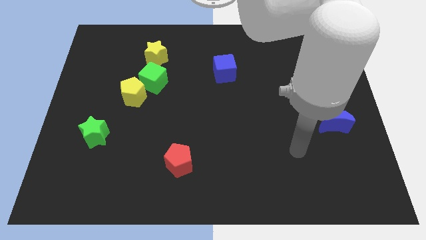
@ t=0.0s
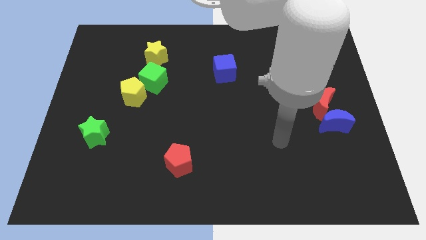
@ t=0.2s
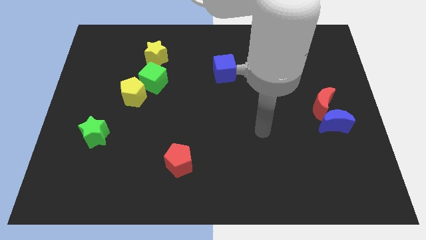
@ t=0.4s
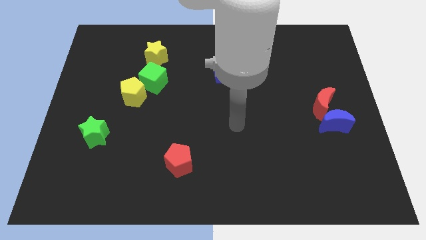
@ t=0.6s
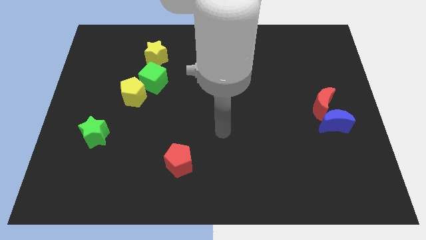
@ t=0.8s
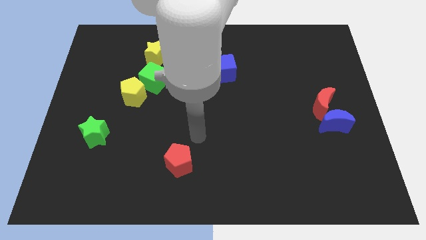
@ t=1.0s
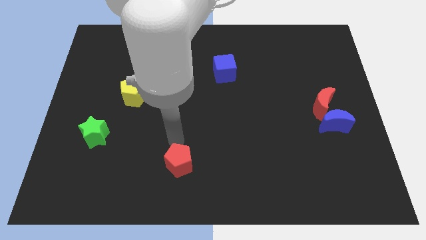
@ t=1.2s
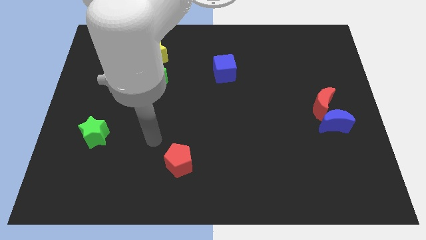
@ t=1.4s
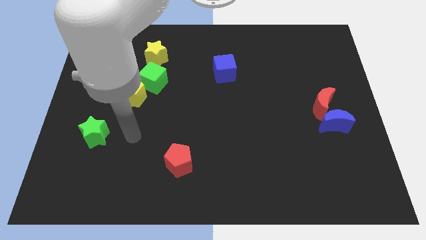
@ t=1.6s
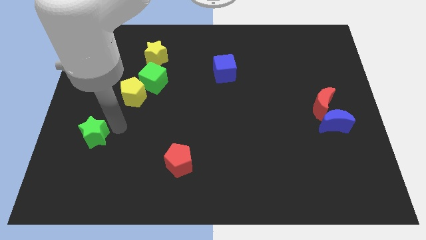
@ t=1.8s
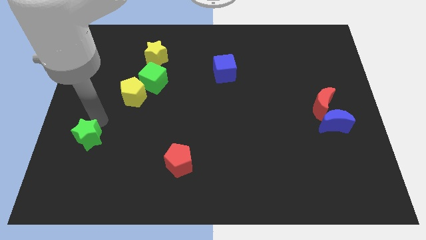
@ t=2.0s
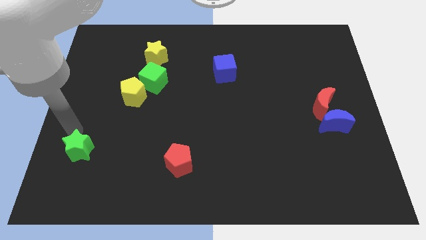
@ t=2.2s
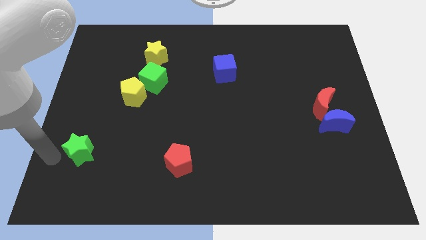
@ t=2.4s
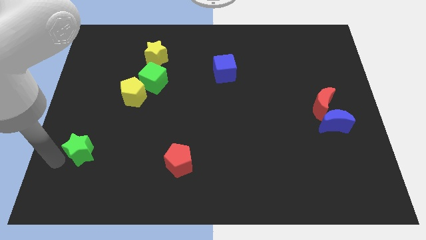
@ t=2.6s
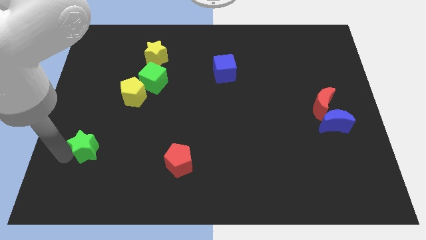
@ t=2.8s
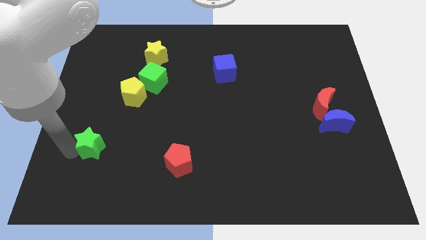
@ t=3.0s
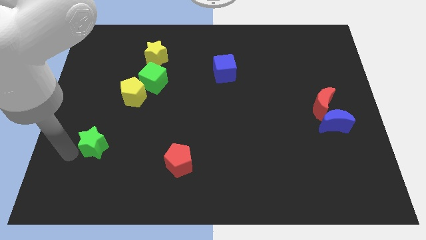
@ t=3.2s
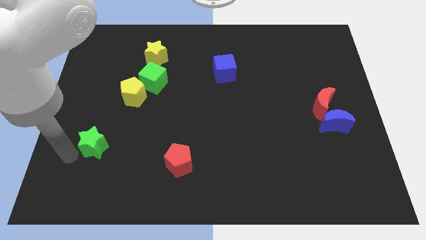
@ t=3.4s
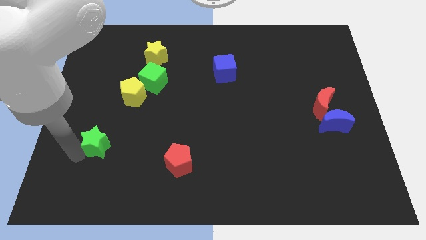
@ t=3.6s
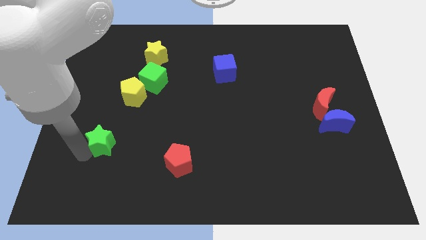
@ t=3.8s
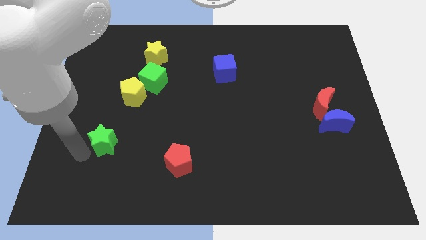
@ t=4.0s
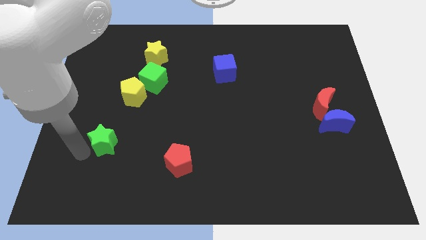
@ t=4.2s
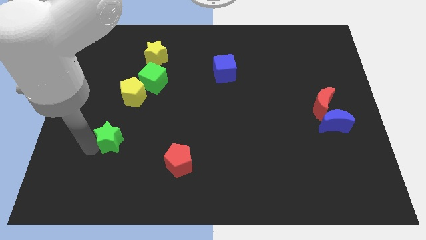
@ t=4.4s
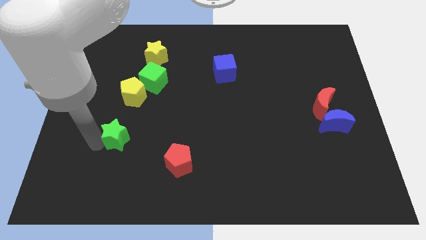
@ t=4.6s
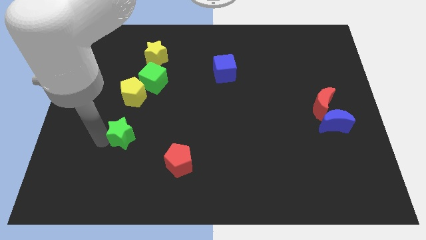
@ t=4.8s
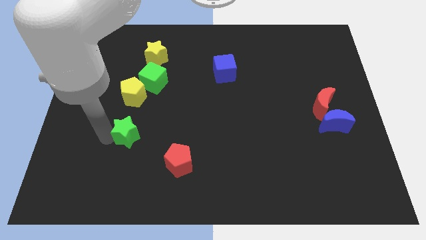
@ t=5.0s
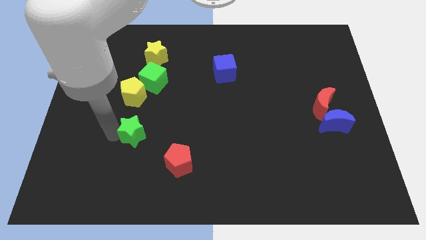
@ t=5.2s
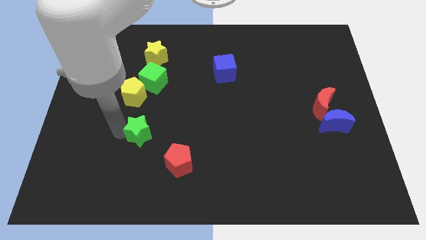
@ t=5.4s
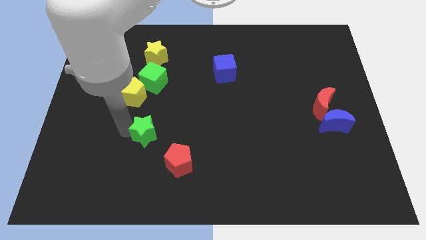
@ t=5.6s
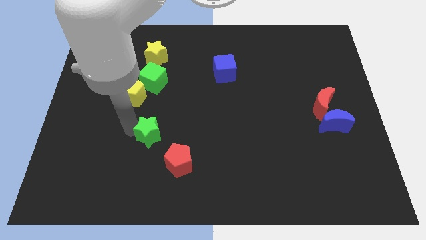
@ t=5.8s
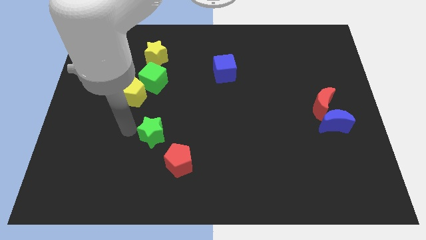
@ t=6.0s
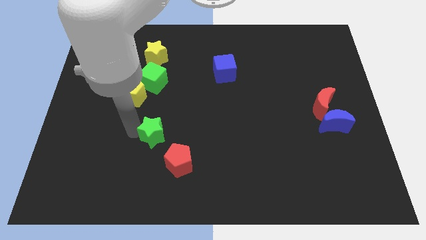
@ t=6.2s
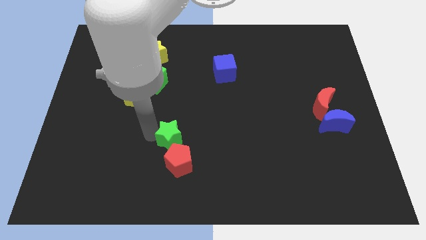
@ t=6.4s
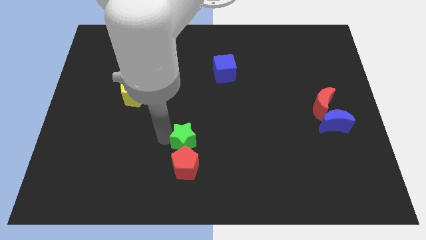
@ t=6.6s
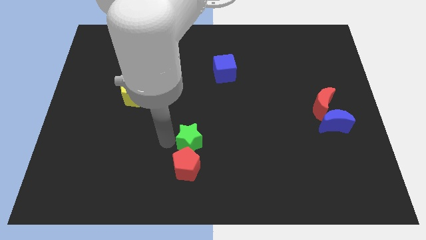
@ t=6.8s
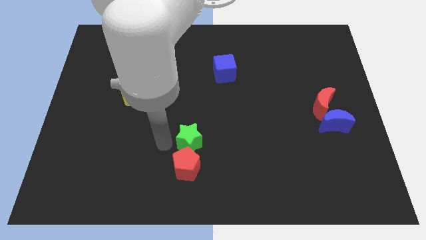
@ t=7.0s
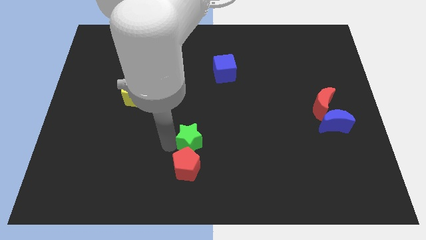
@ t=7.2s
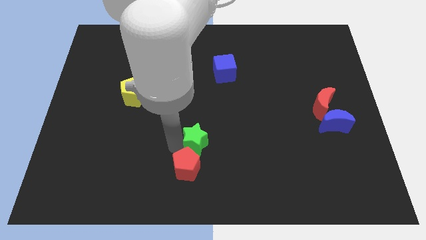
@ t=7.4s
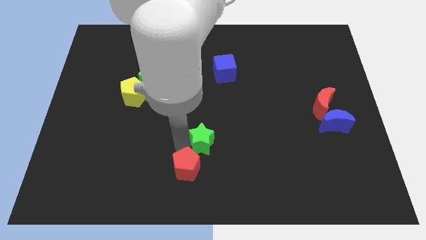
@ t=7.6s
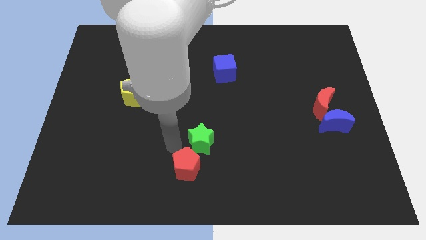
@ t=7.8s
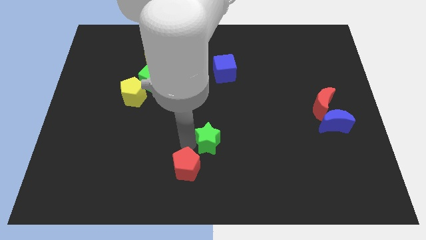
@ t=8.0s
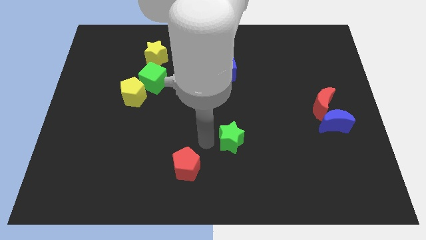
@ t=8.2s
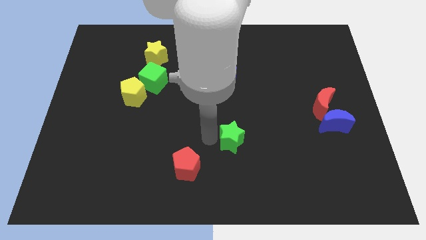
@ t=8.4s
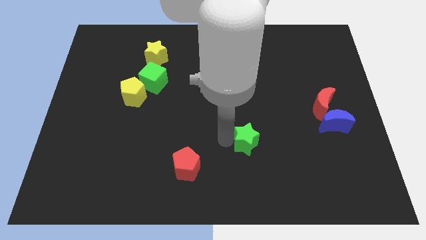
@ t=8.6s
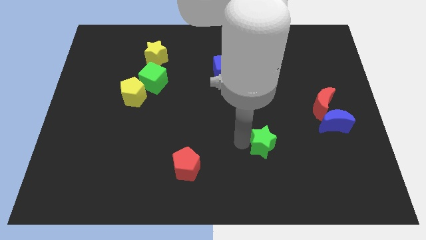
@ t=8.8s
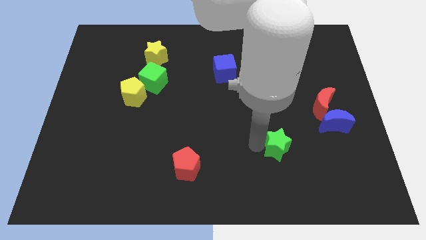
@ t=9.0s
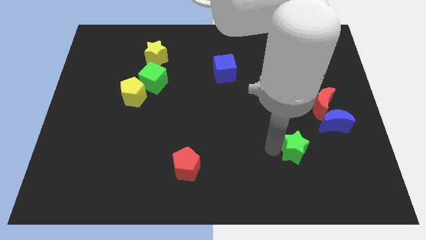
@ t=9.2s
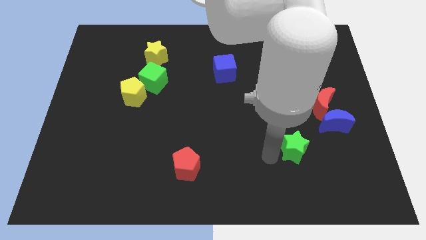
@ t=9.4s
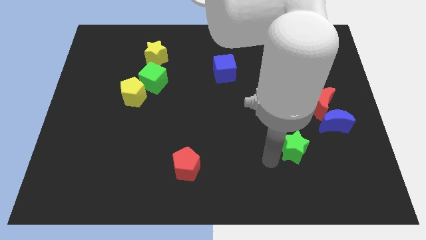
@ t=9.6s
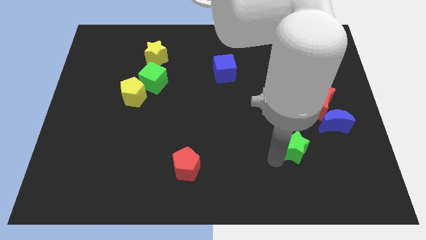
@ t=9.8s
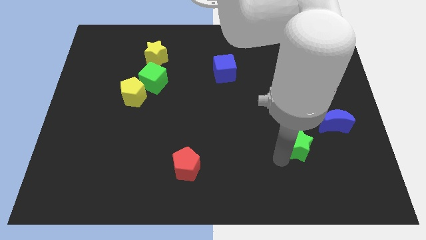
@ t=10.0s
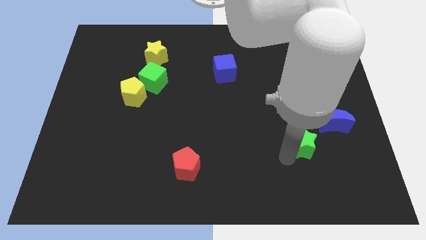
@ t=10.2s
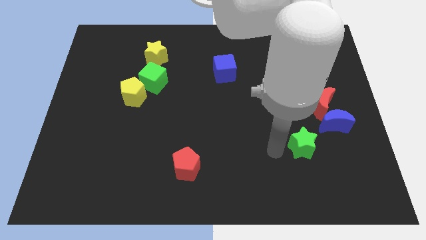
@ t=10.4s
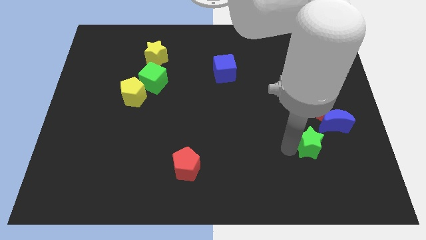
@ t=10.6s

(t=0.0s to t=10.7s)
push the green star below the red moon

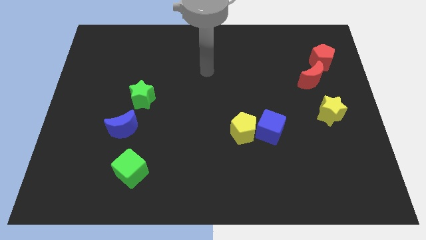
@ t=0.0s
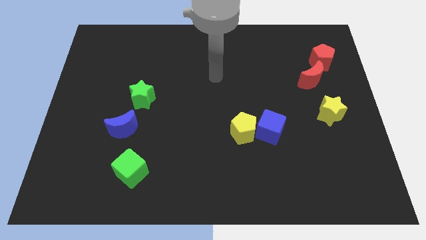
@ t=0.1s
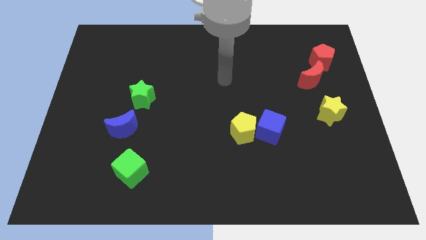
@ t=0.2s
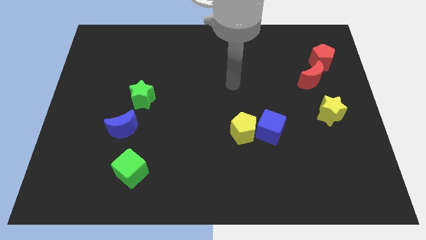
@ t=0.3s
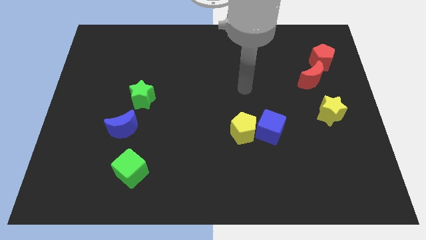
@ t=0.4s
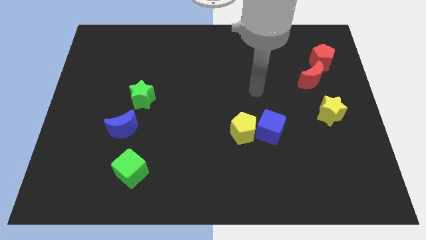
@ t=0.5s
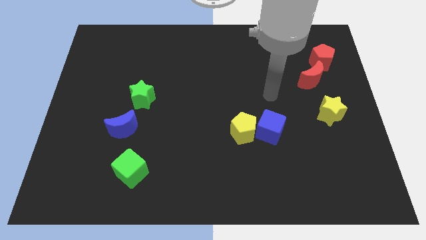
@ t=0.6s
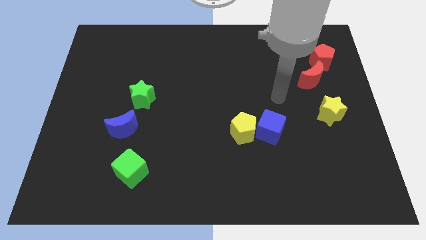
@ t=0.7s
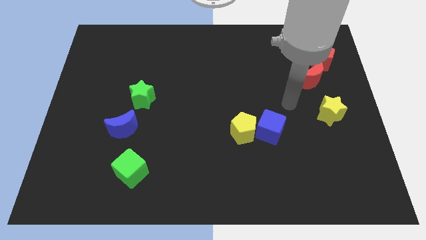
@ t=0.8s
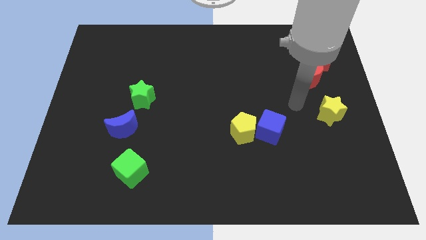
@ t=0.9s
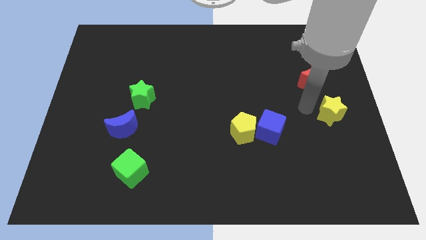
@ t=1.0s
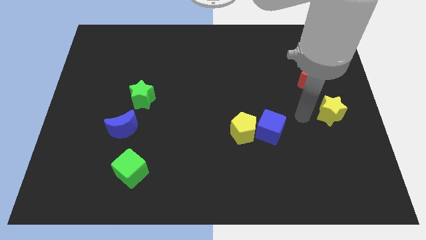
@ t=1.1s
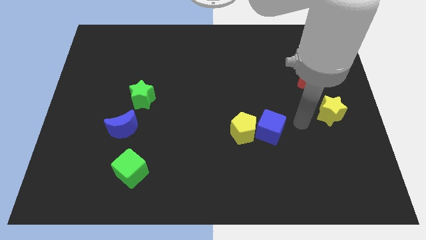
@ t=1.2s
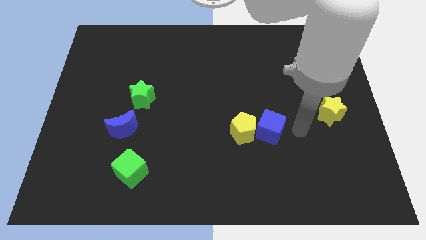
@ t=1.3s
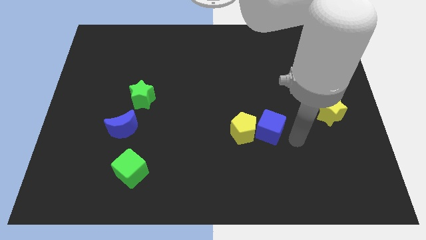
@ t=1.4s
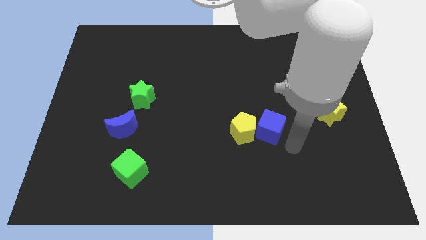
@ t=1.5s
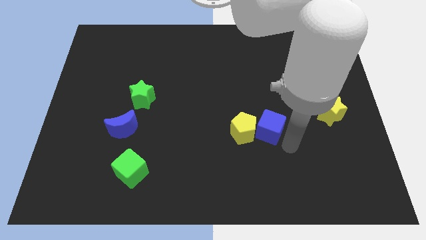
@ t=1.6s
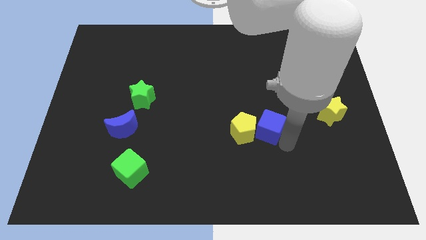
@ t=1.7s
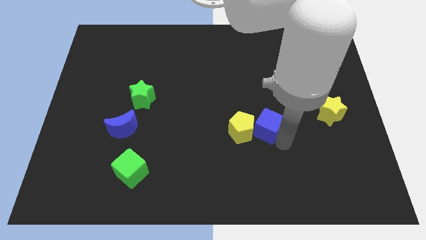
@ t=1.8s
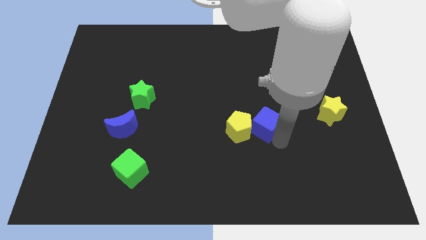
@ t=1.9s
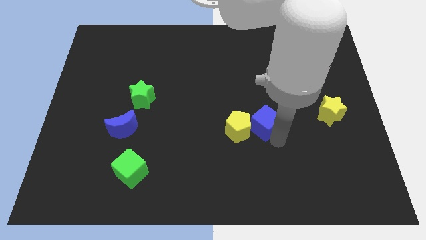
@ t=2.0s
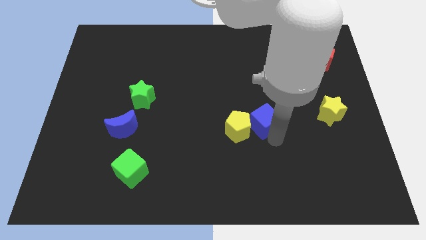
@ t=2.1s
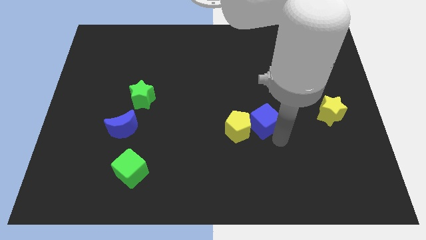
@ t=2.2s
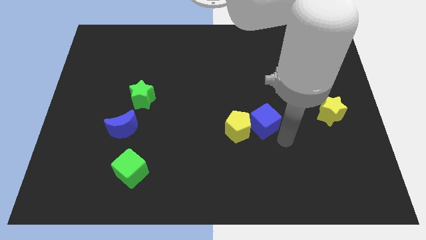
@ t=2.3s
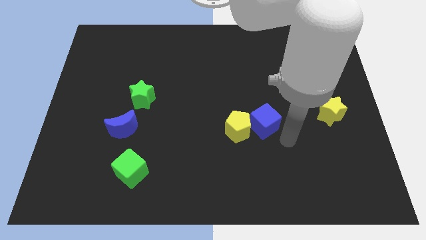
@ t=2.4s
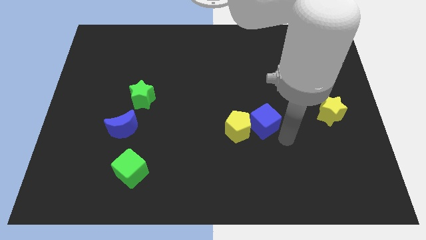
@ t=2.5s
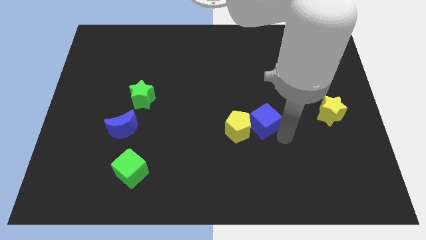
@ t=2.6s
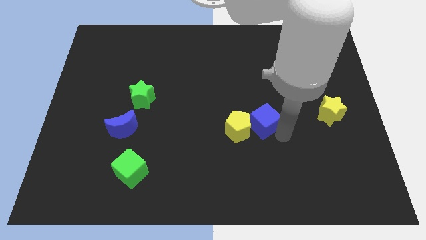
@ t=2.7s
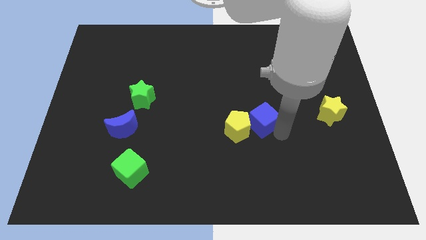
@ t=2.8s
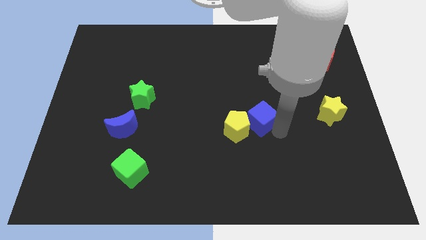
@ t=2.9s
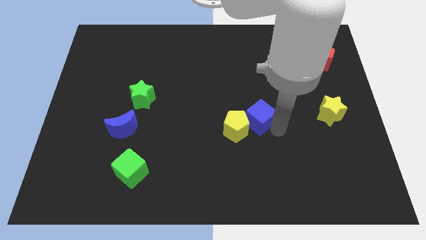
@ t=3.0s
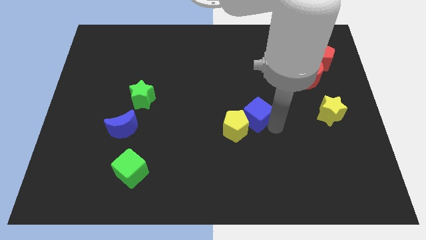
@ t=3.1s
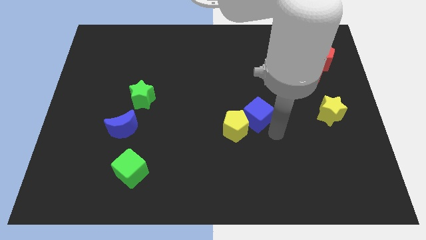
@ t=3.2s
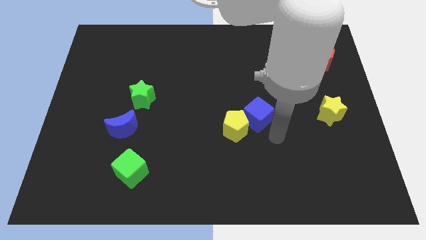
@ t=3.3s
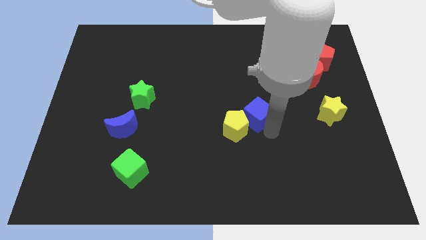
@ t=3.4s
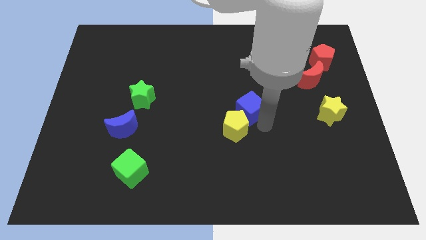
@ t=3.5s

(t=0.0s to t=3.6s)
push the blue cube to the top of the yellow pentagon
